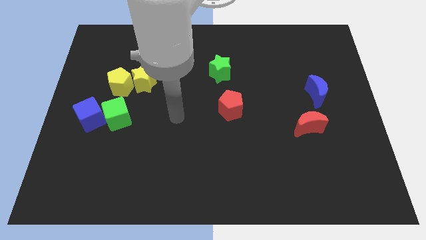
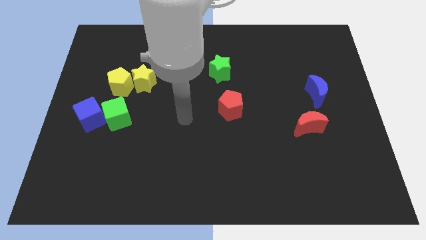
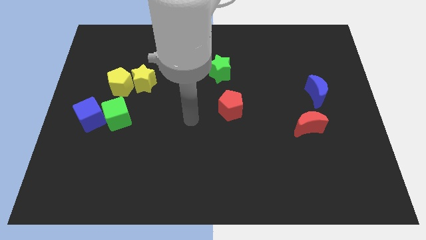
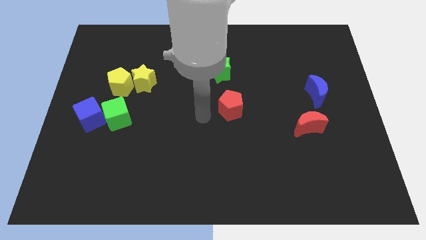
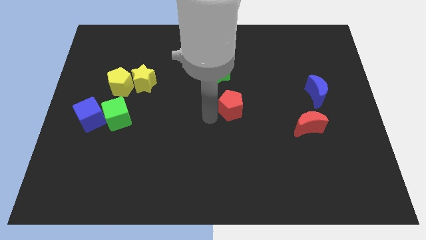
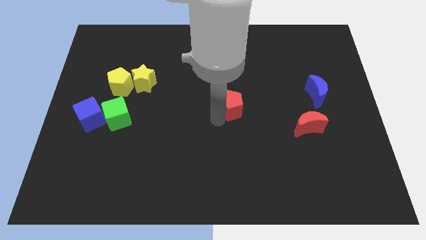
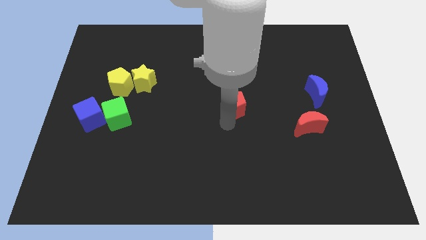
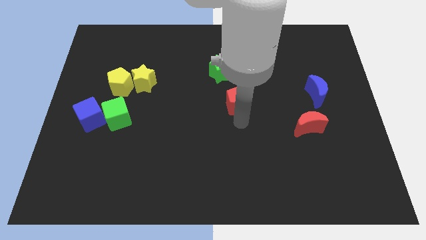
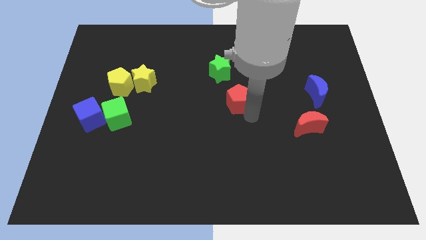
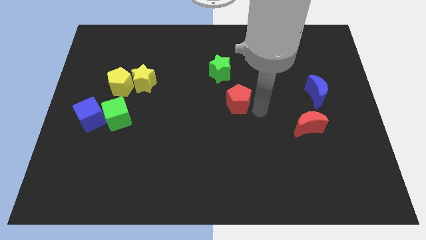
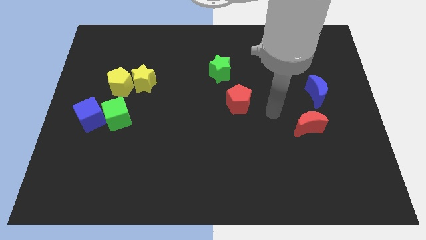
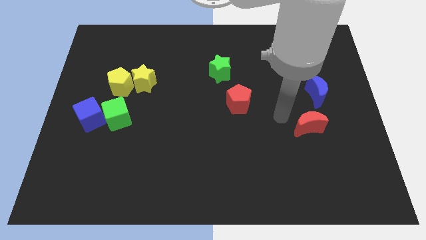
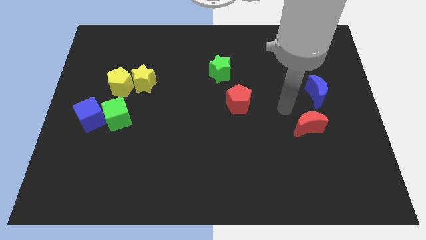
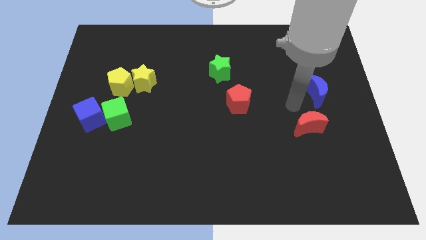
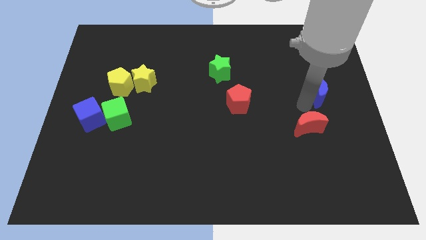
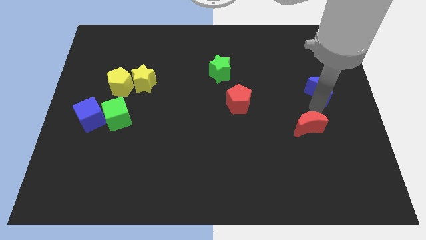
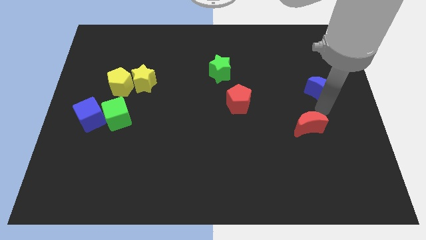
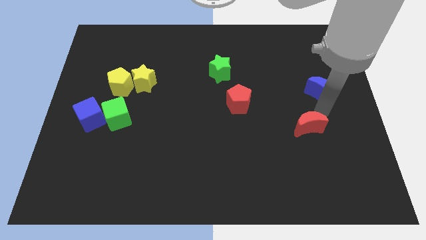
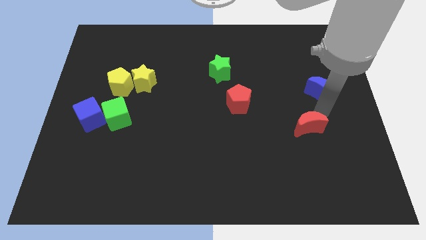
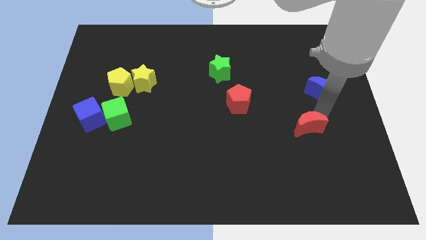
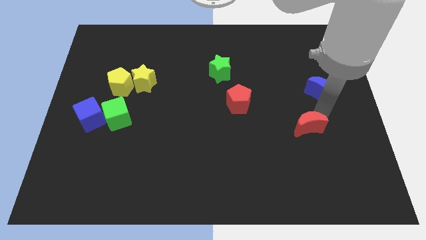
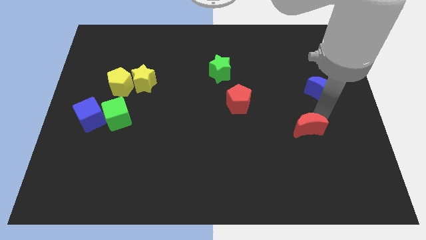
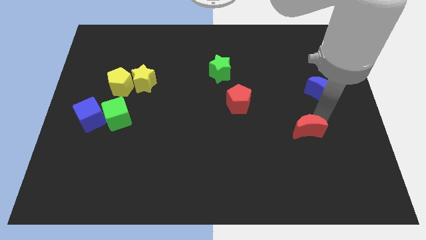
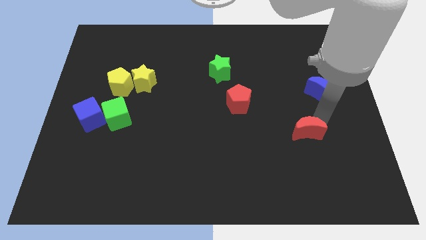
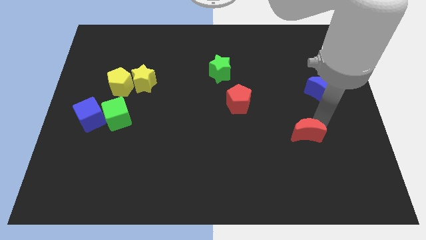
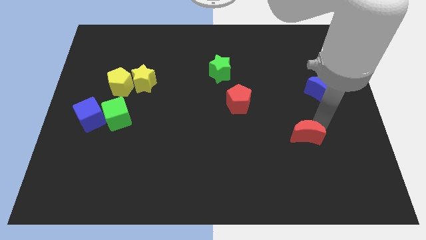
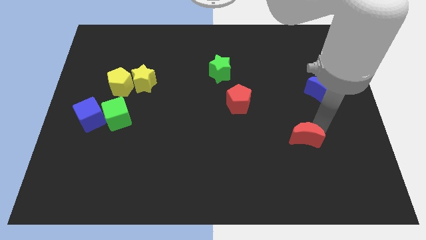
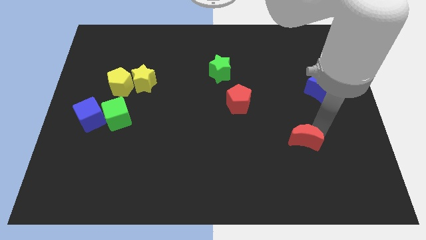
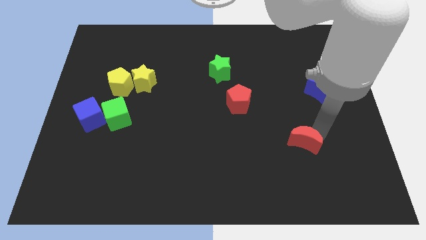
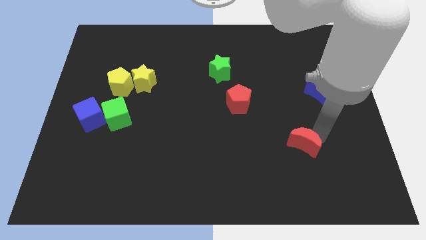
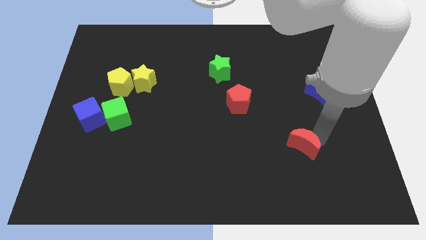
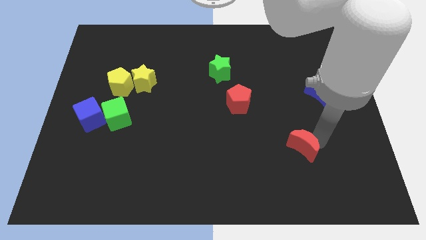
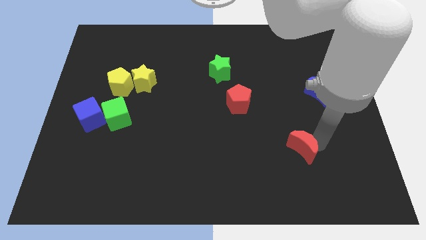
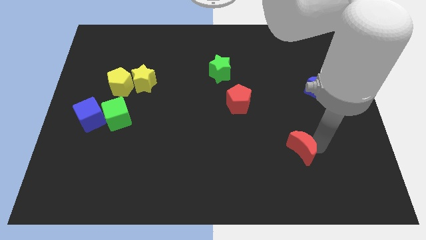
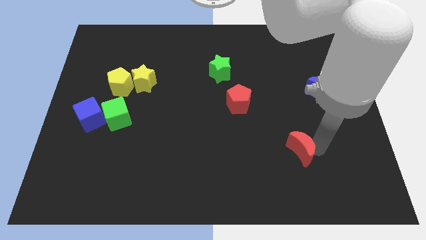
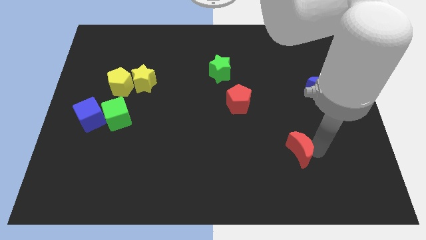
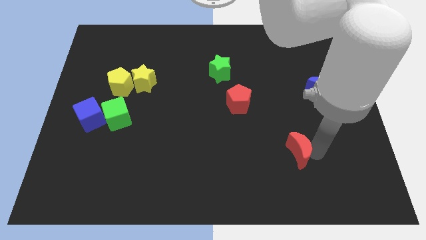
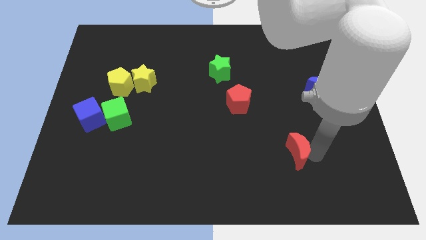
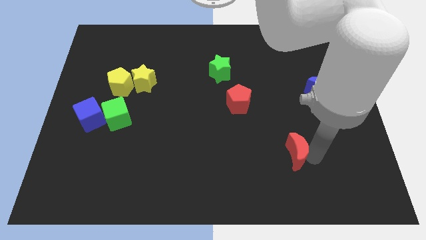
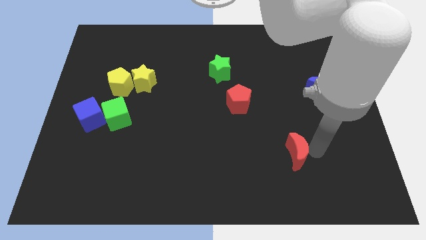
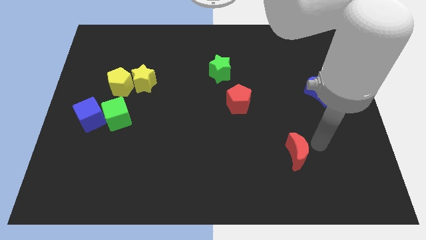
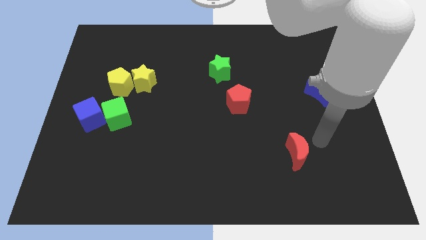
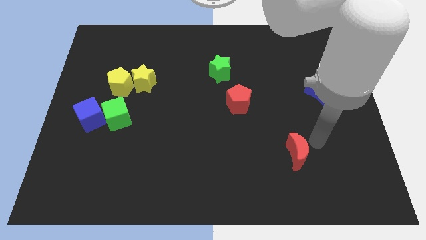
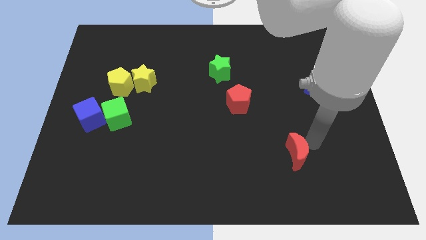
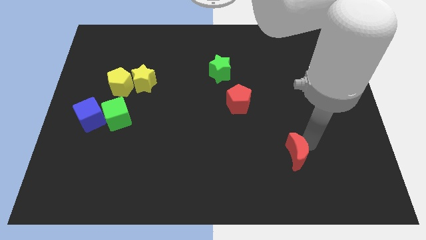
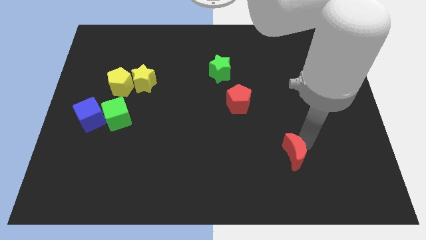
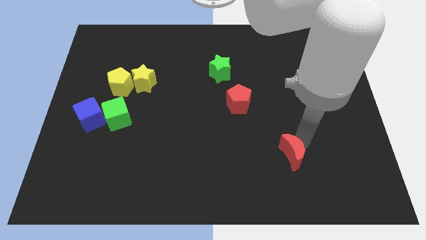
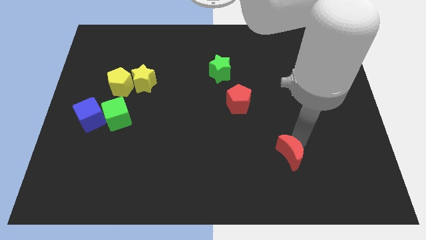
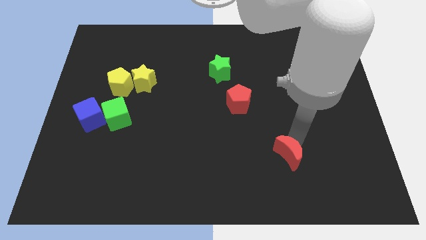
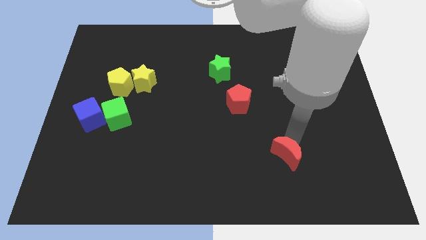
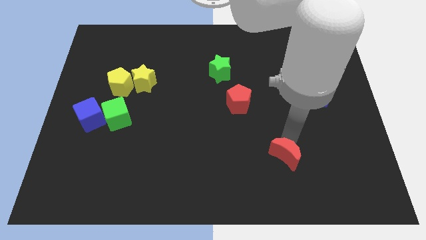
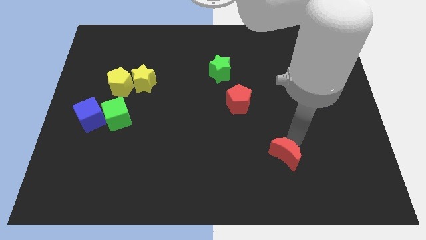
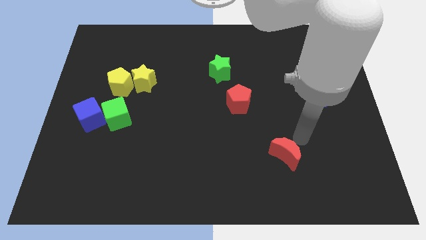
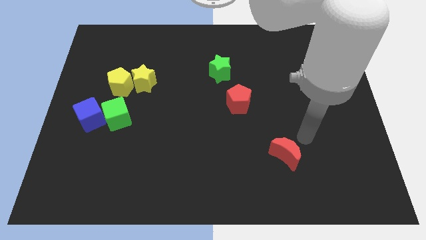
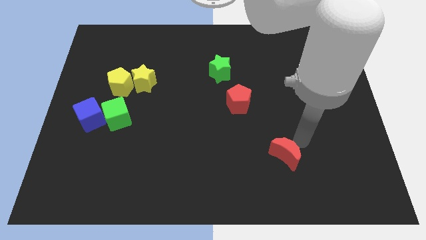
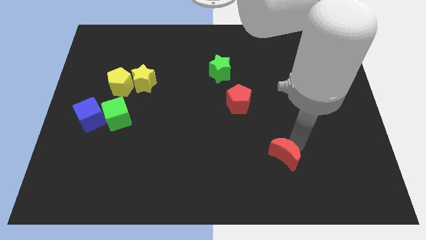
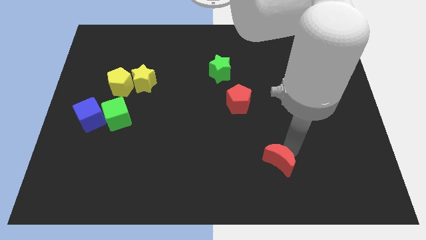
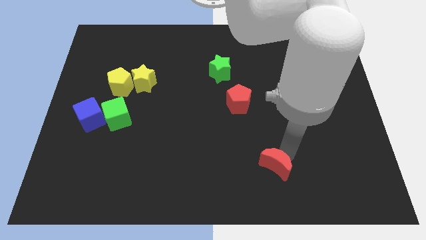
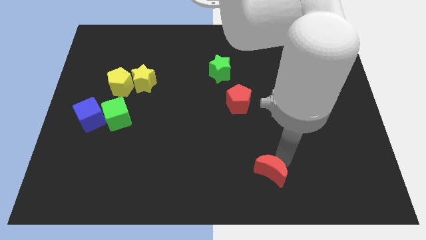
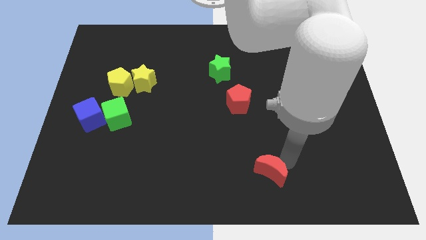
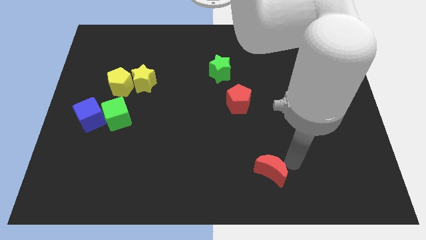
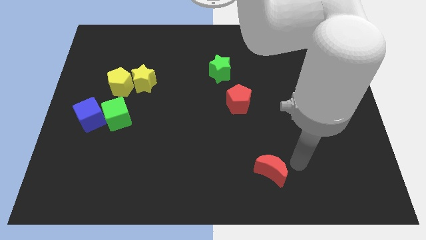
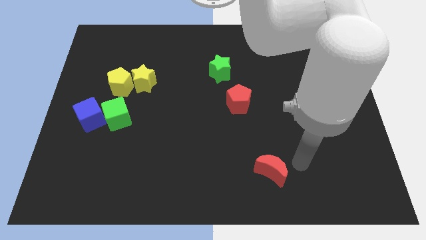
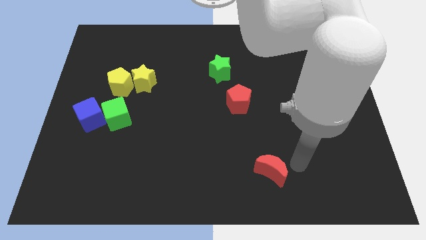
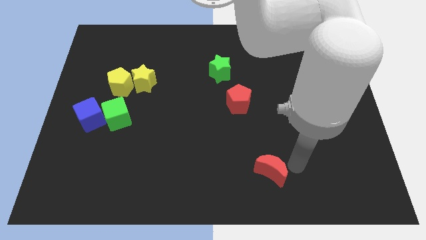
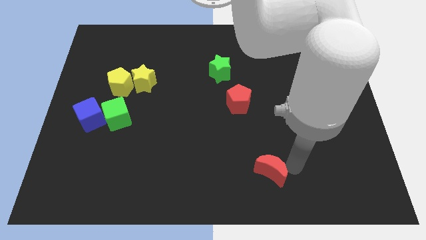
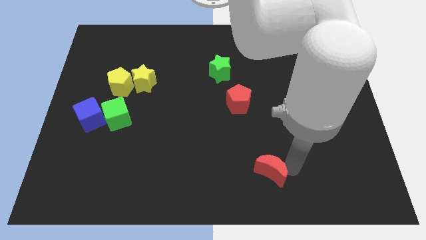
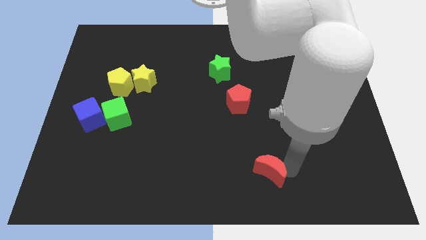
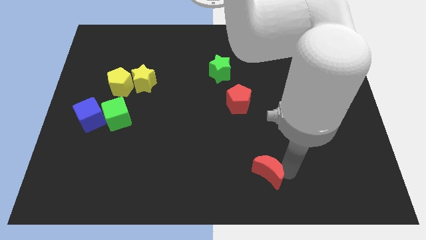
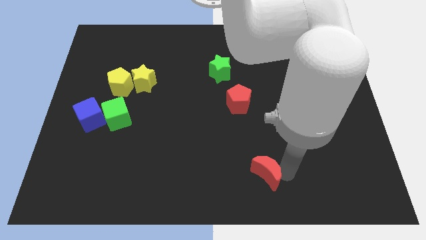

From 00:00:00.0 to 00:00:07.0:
move the red moon to the bottom
